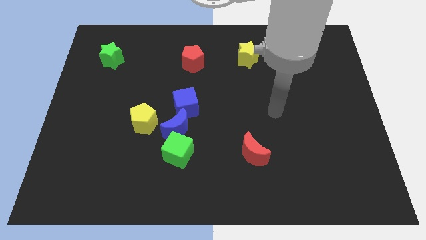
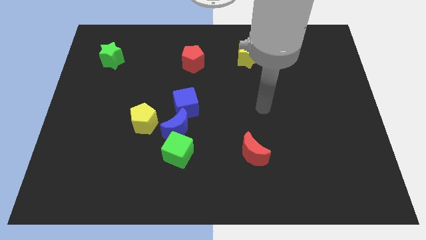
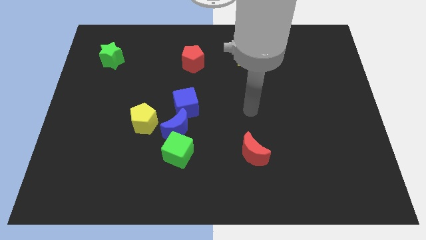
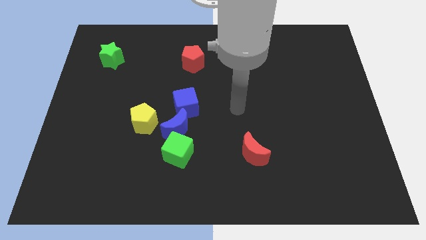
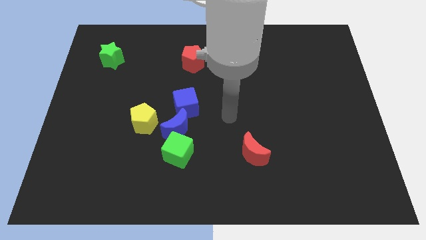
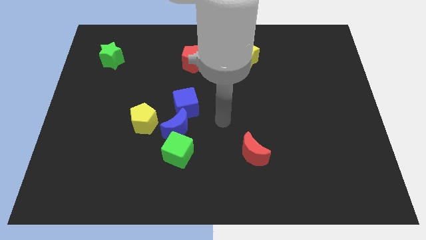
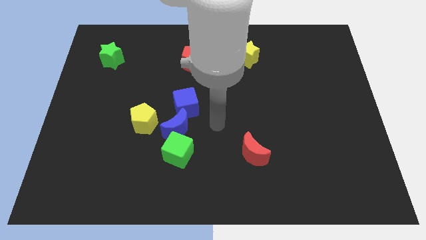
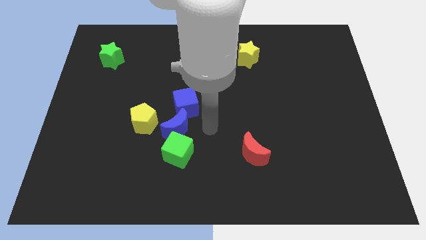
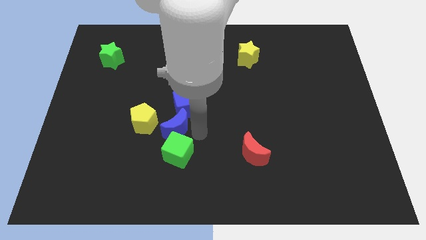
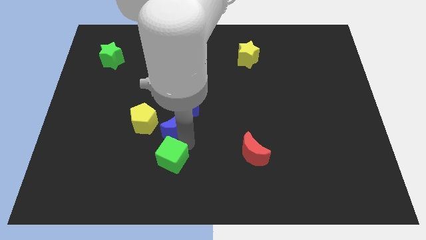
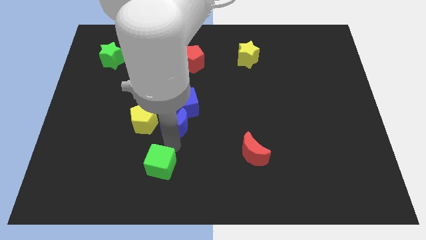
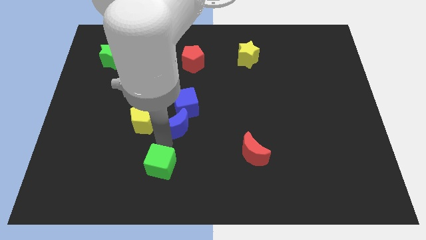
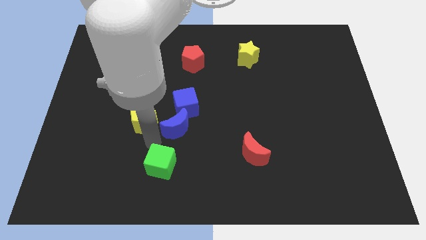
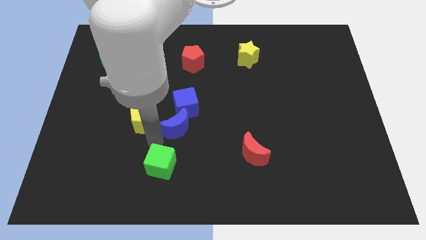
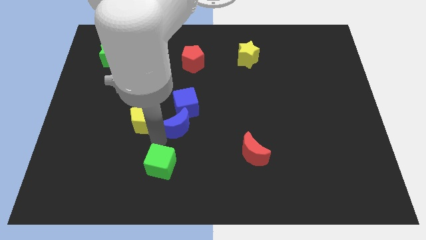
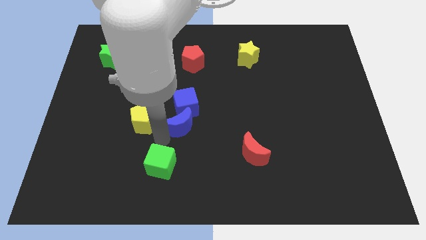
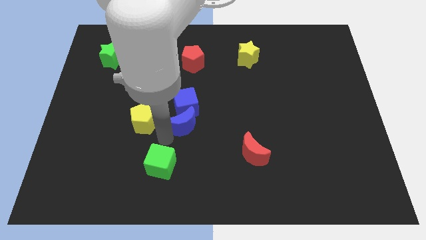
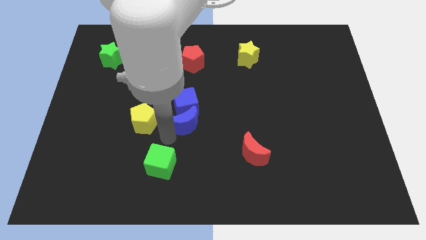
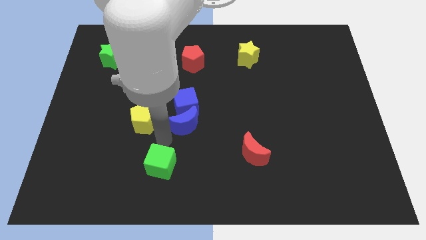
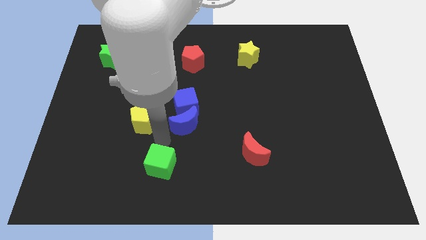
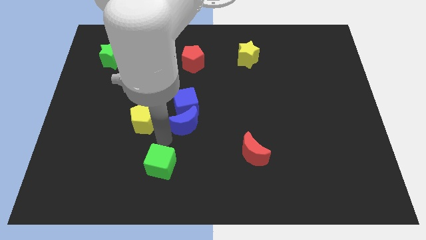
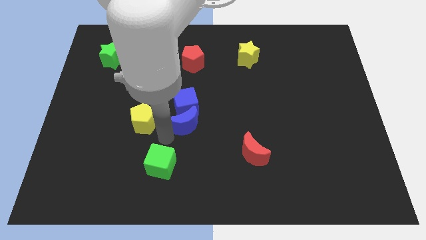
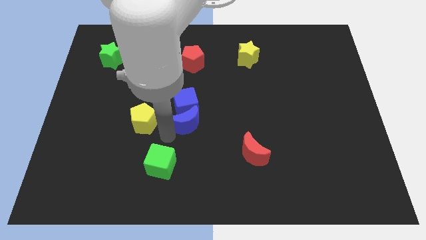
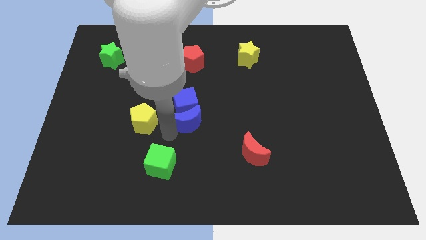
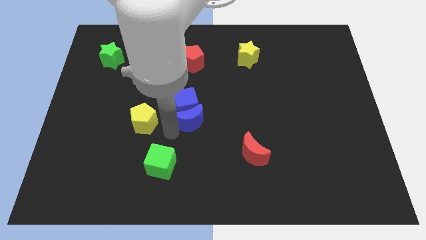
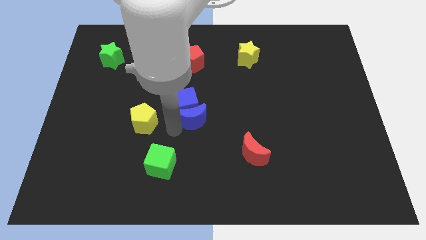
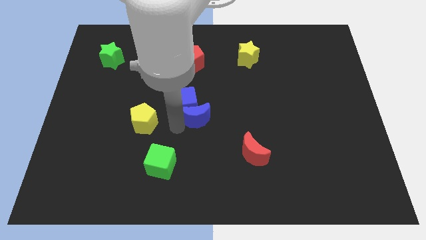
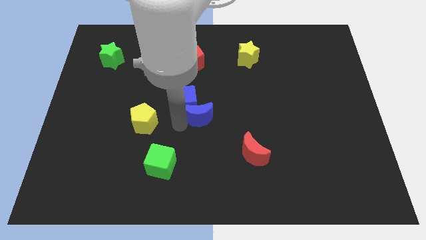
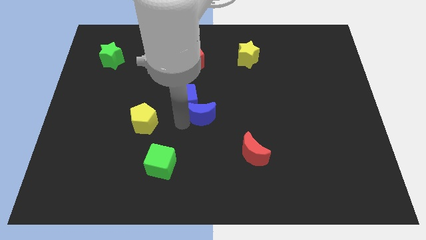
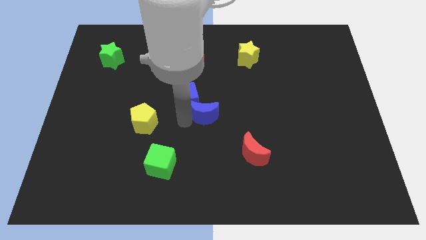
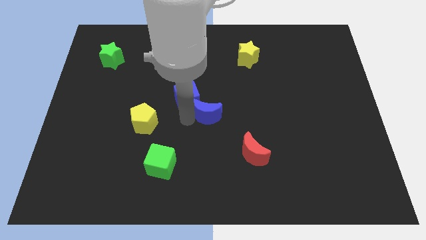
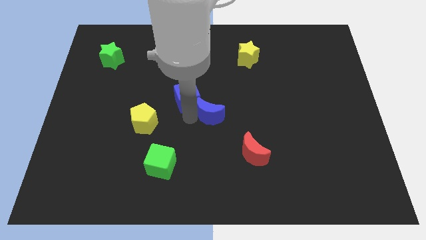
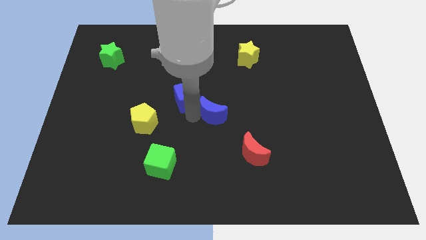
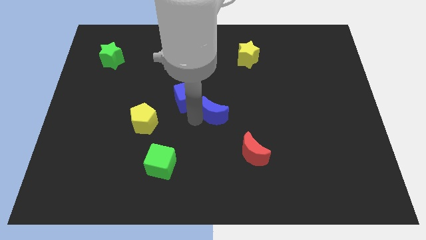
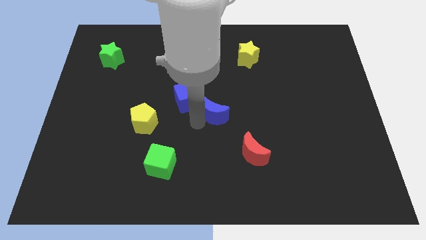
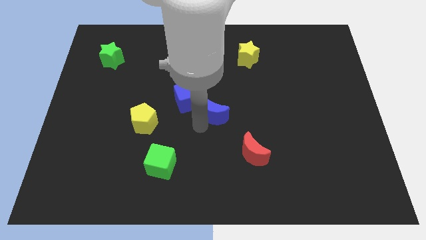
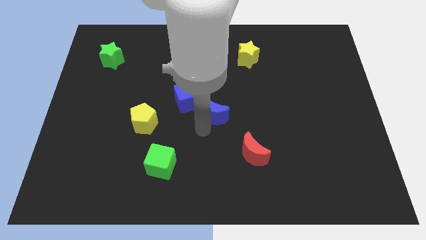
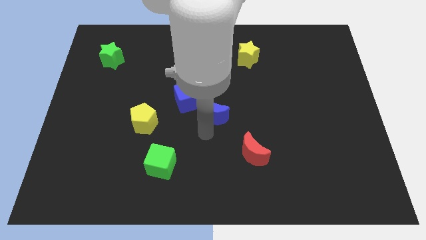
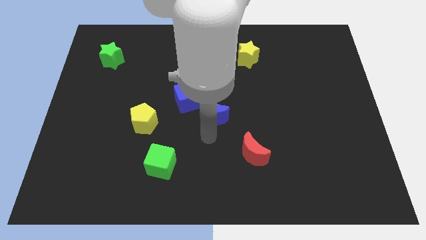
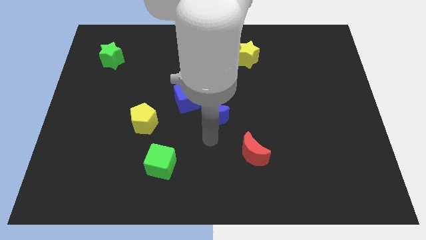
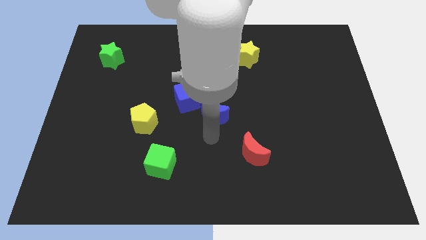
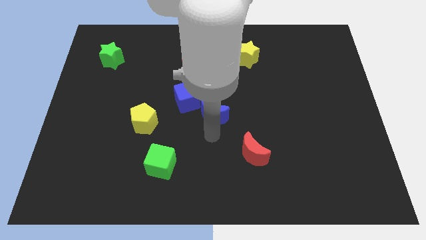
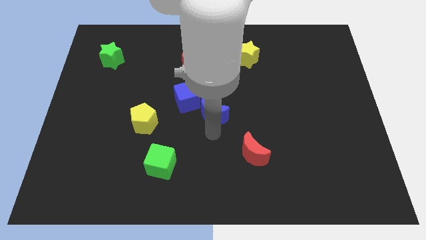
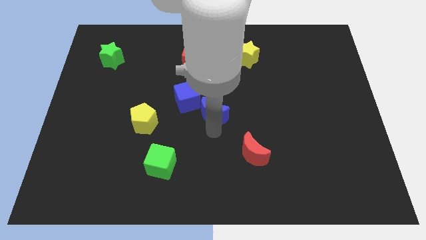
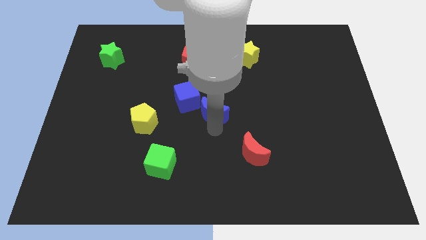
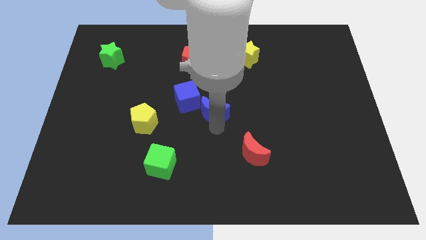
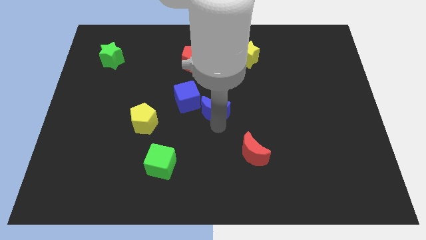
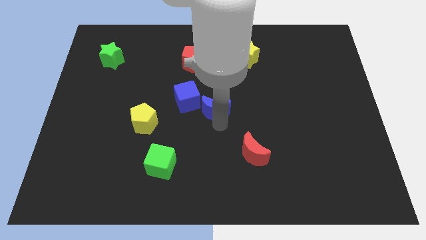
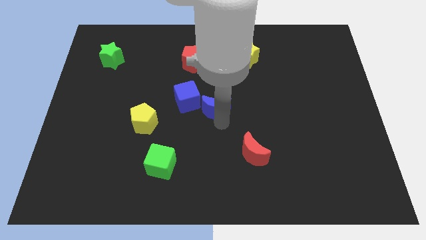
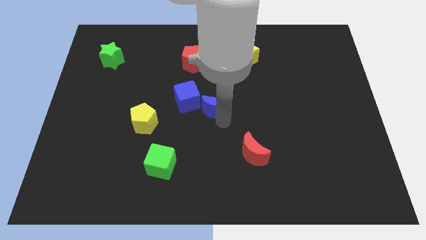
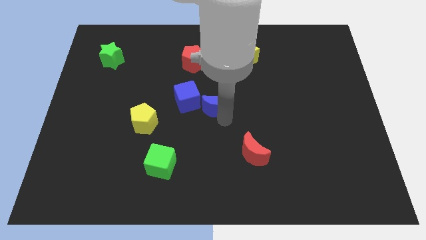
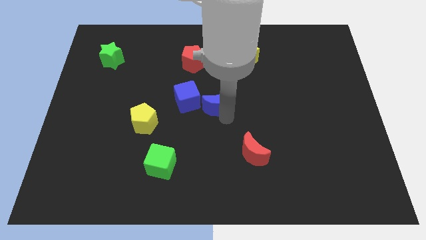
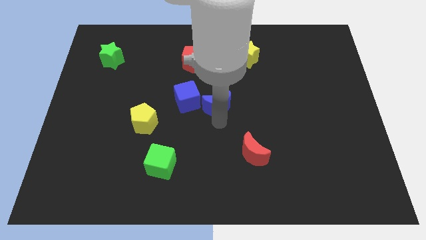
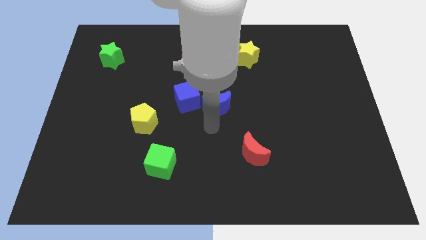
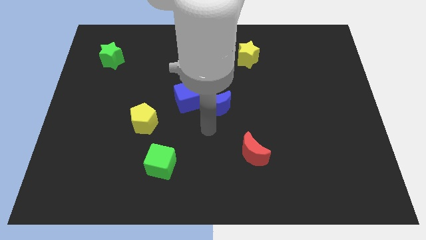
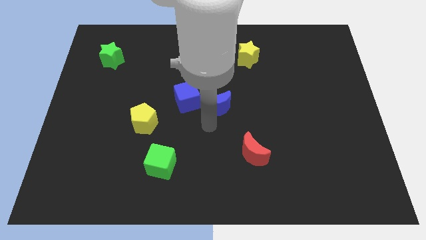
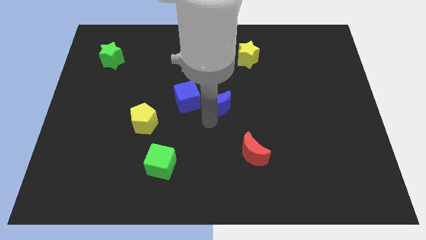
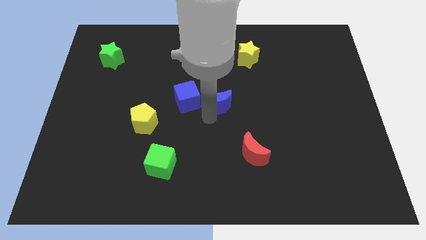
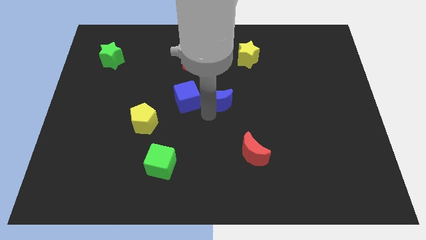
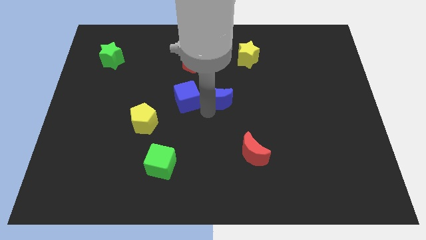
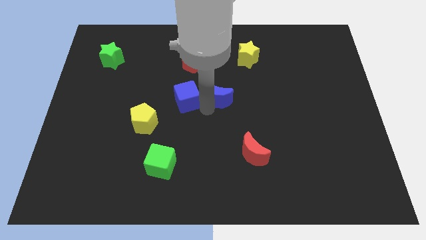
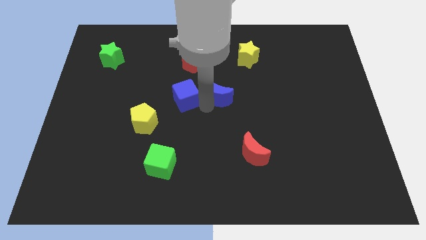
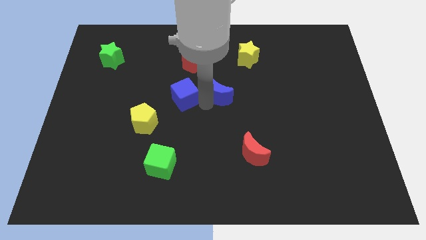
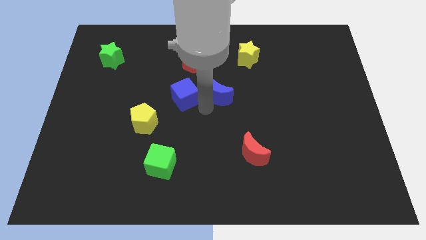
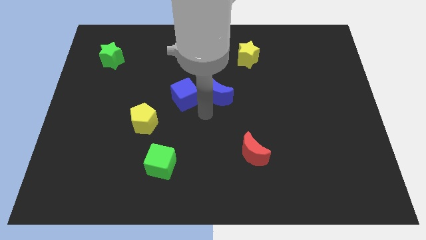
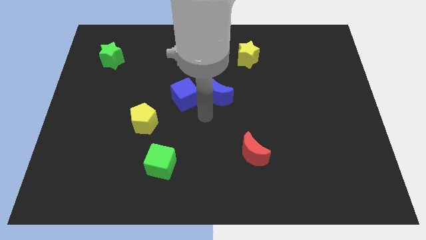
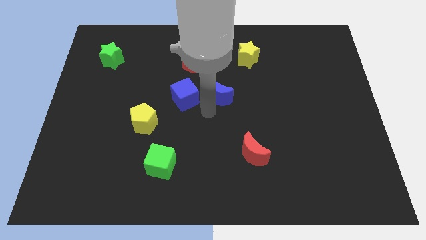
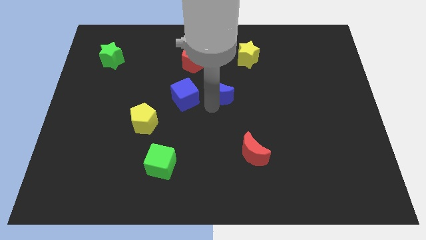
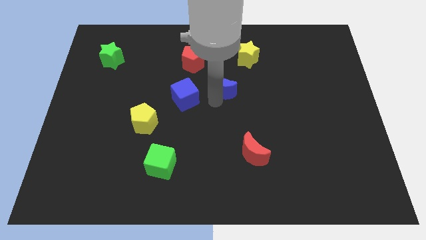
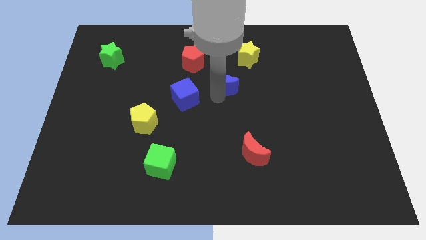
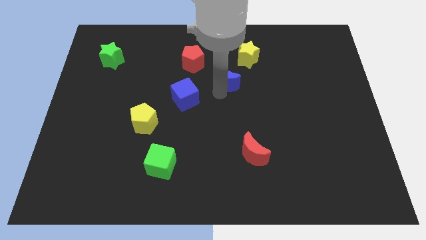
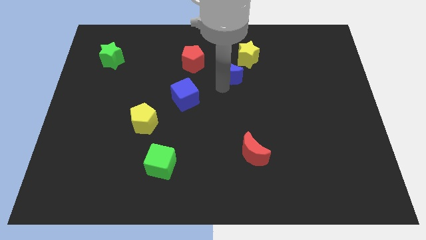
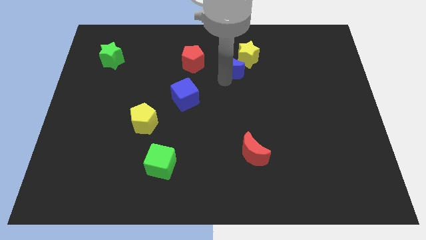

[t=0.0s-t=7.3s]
push the blue moon close to the yellow star
